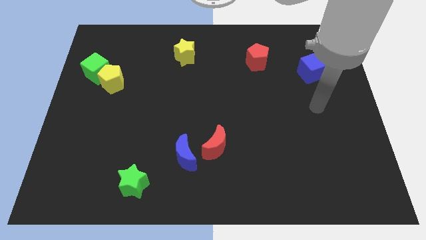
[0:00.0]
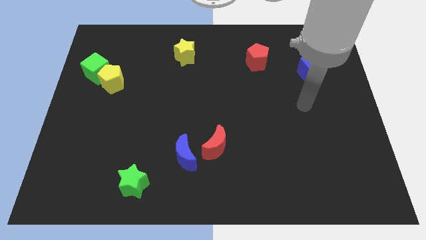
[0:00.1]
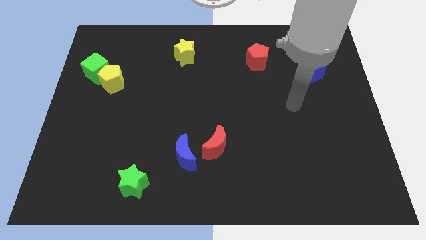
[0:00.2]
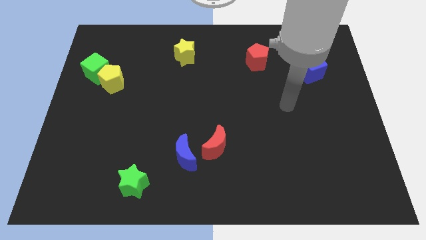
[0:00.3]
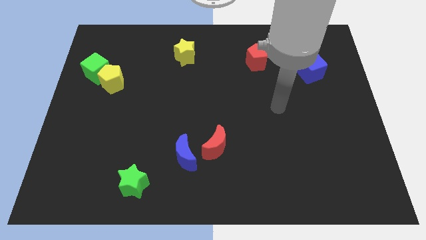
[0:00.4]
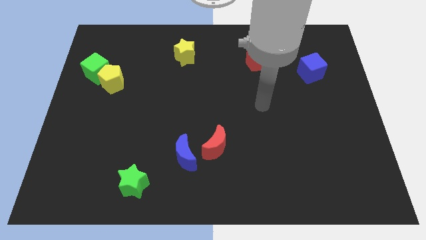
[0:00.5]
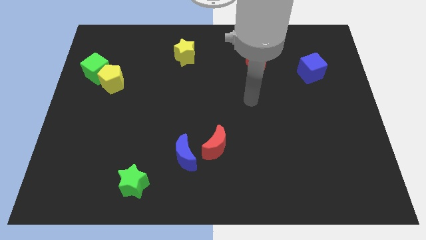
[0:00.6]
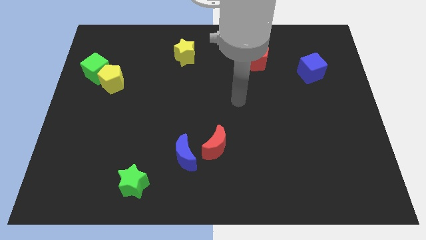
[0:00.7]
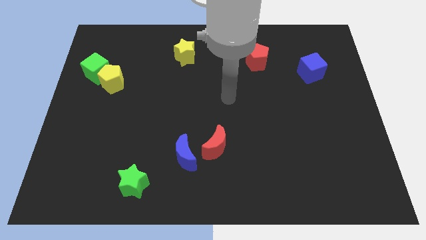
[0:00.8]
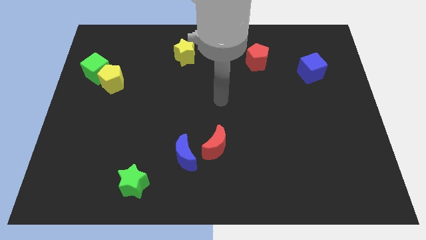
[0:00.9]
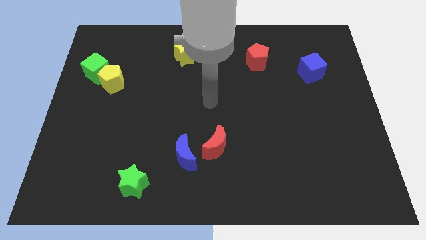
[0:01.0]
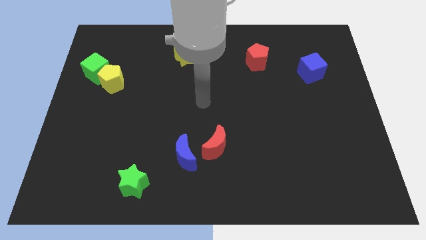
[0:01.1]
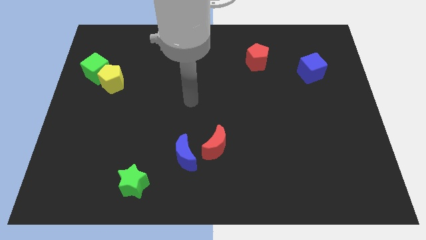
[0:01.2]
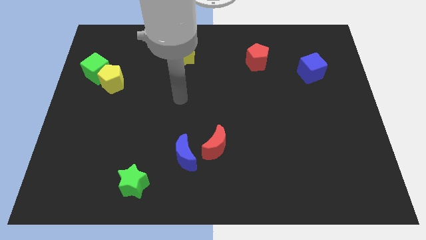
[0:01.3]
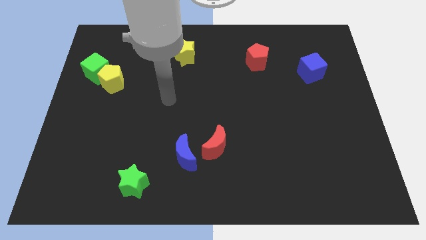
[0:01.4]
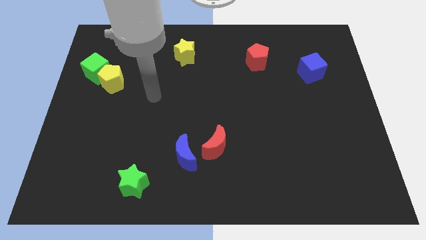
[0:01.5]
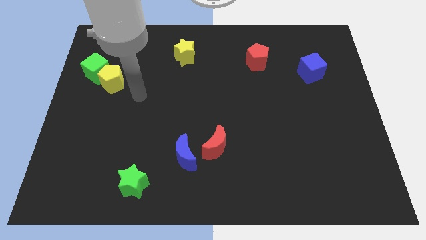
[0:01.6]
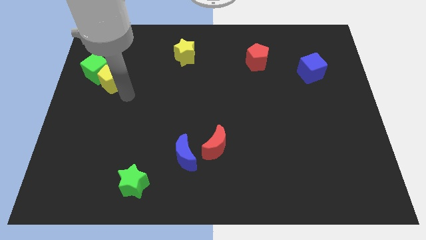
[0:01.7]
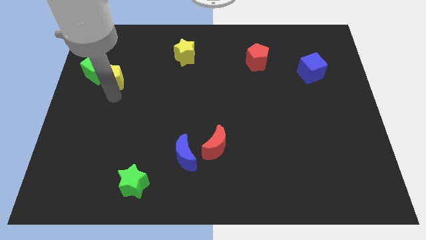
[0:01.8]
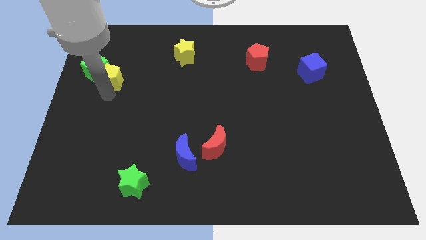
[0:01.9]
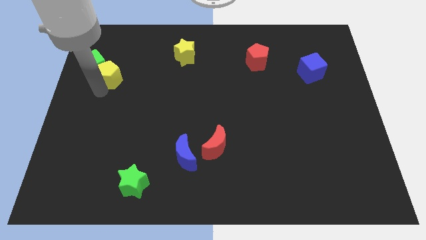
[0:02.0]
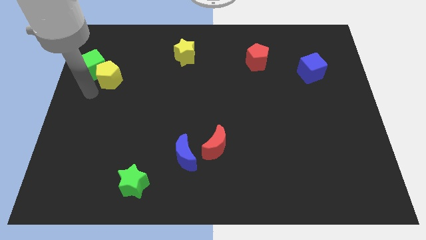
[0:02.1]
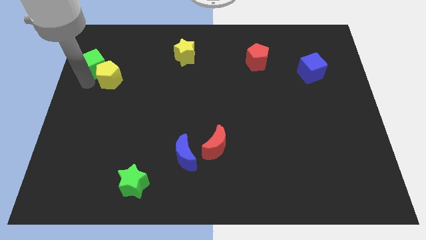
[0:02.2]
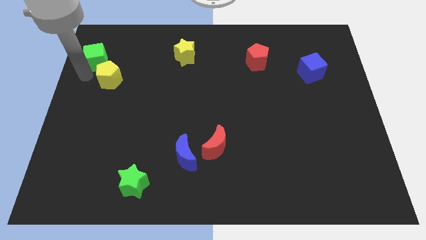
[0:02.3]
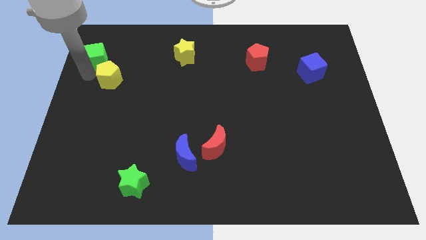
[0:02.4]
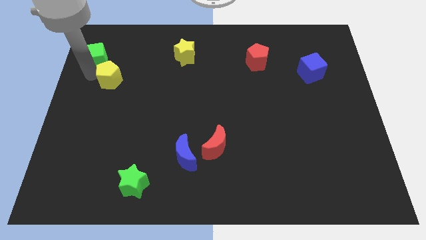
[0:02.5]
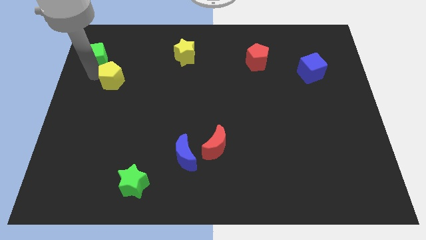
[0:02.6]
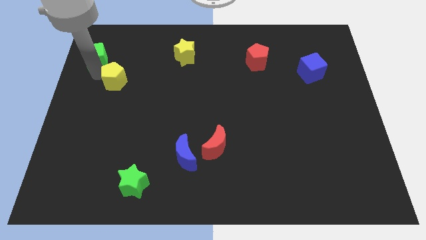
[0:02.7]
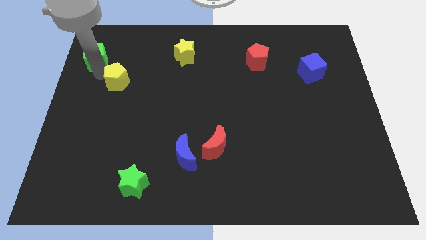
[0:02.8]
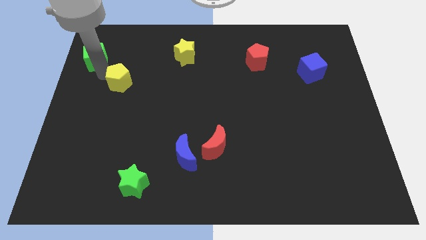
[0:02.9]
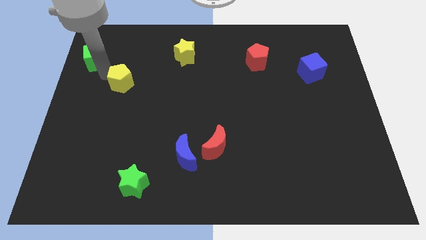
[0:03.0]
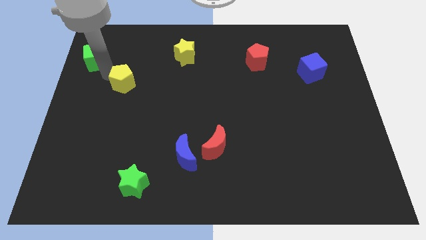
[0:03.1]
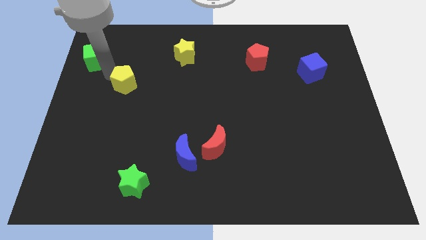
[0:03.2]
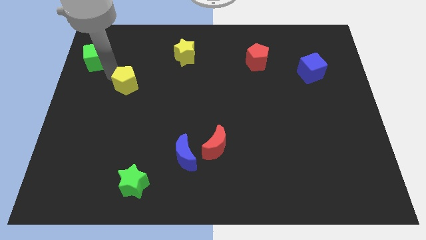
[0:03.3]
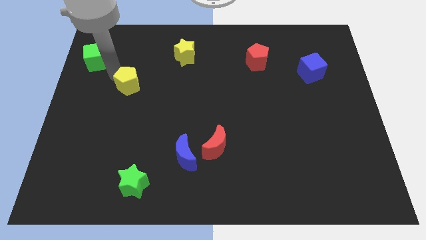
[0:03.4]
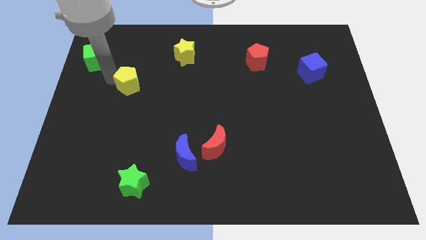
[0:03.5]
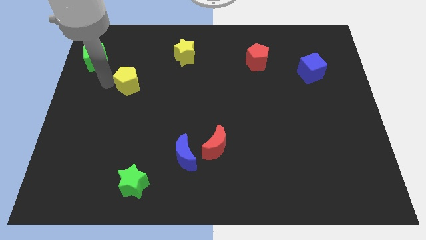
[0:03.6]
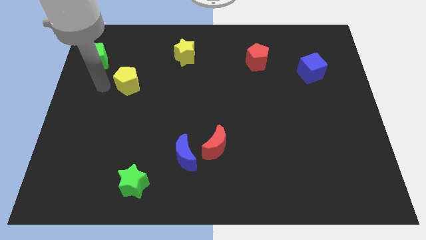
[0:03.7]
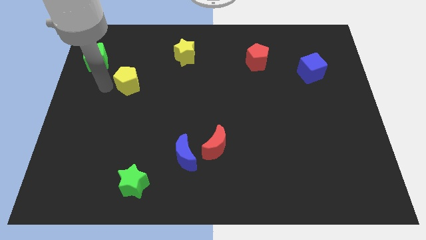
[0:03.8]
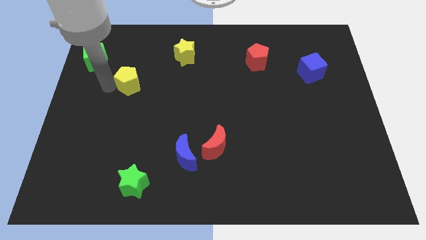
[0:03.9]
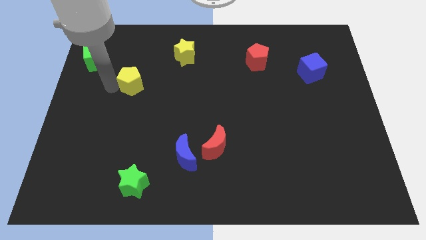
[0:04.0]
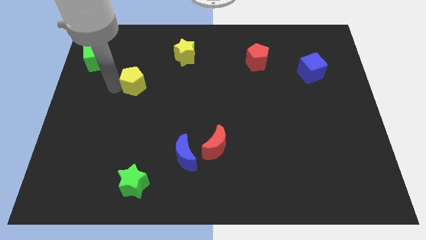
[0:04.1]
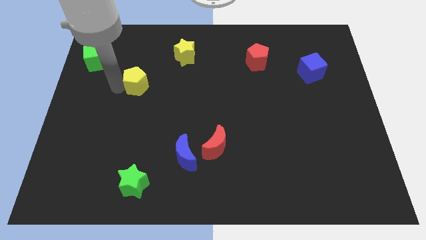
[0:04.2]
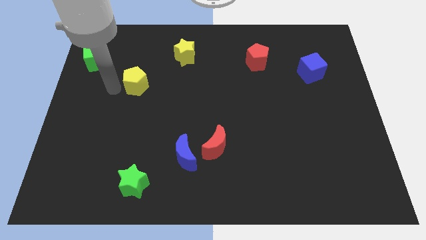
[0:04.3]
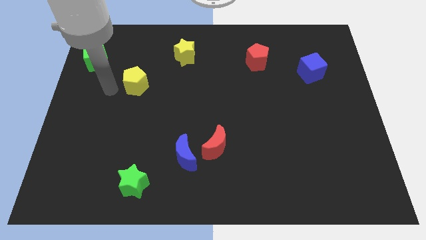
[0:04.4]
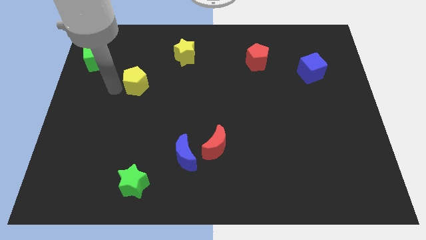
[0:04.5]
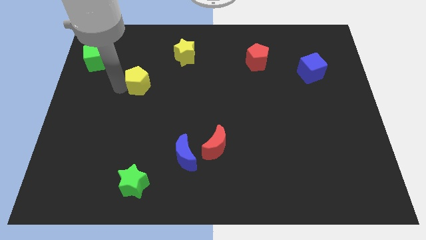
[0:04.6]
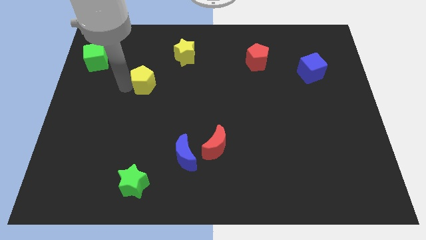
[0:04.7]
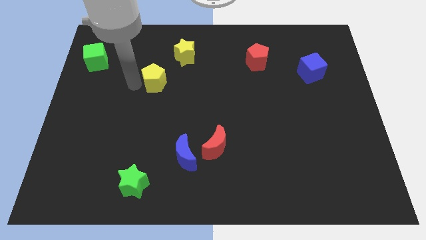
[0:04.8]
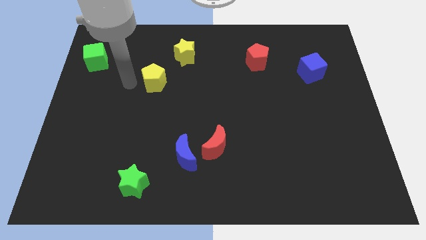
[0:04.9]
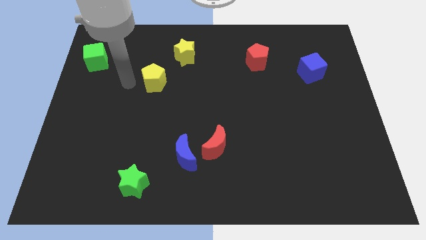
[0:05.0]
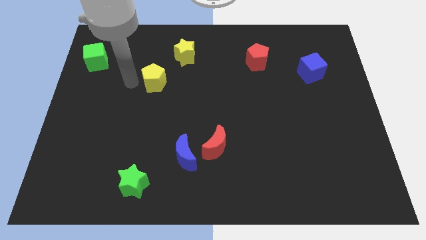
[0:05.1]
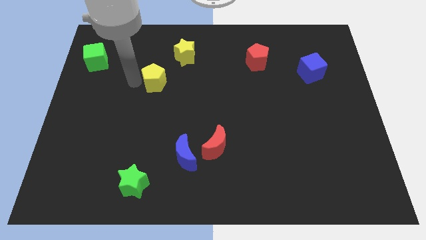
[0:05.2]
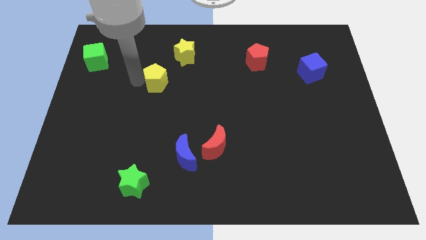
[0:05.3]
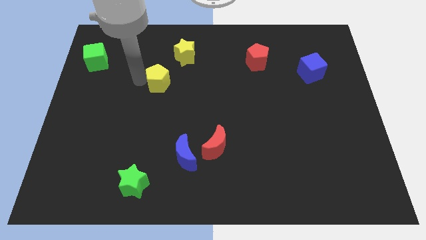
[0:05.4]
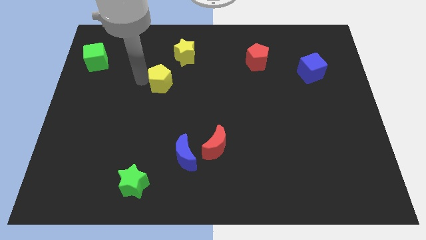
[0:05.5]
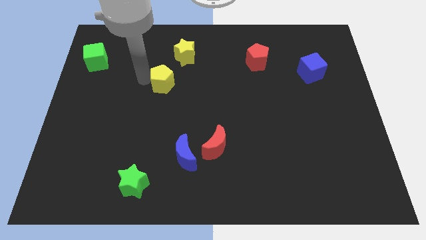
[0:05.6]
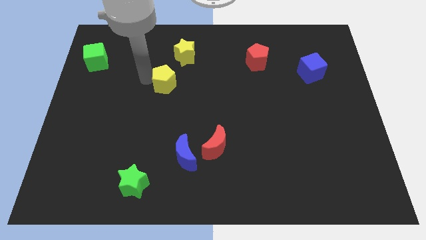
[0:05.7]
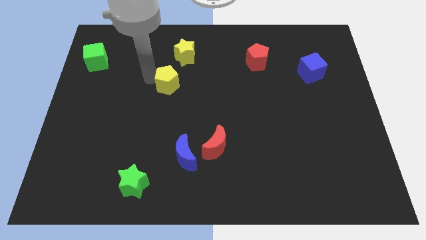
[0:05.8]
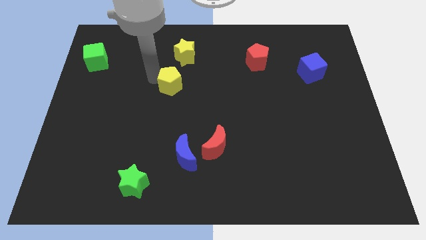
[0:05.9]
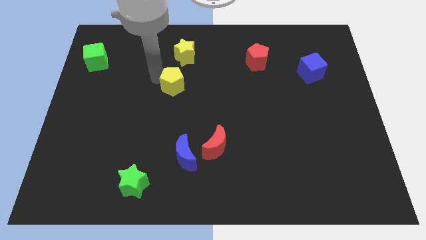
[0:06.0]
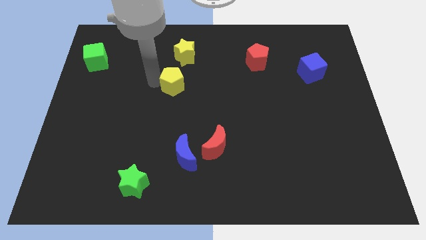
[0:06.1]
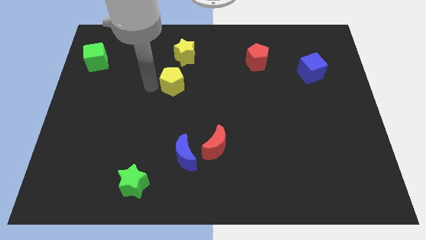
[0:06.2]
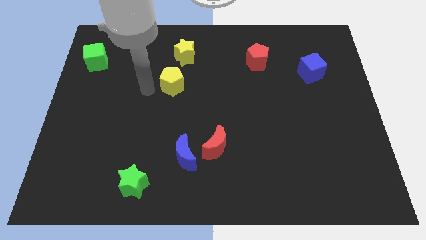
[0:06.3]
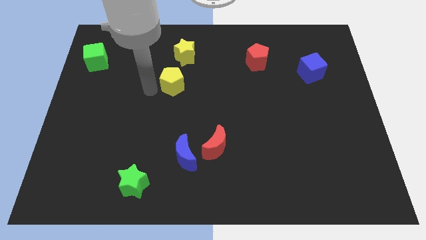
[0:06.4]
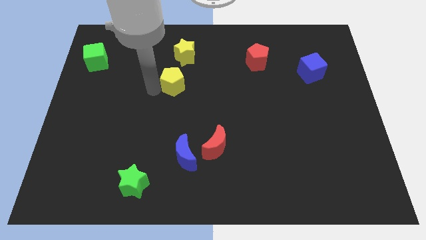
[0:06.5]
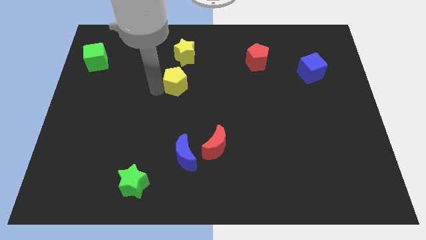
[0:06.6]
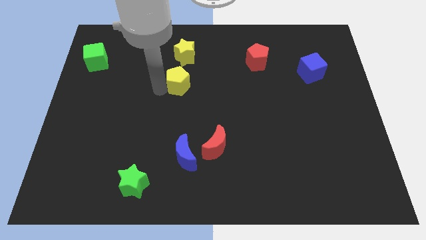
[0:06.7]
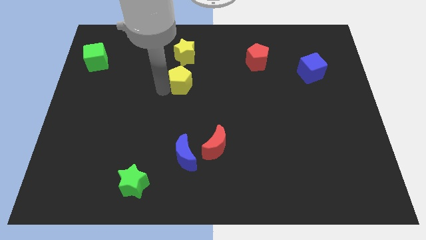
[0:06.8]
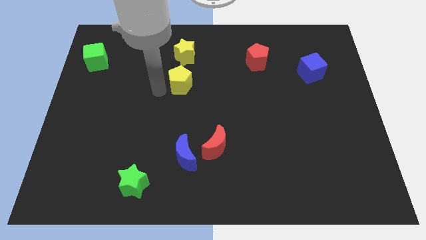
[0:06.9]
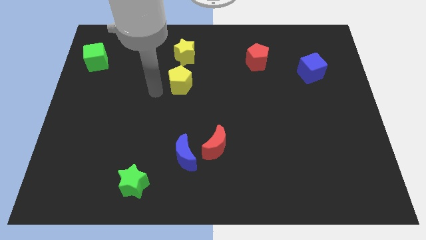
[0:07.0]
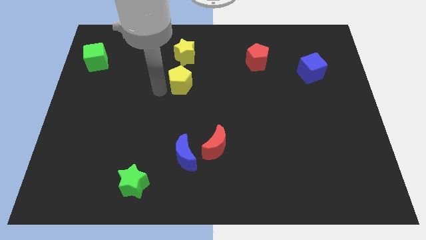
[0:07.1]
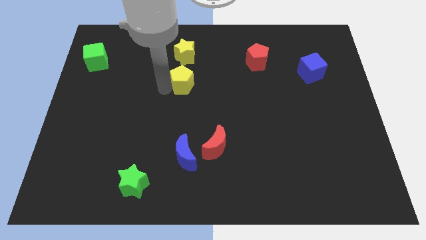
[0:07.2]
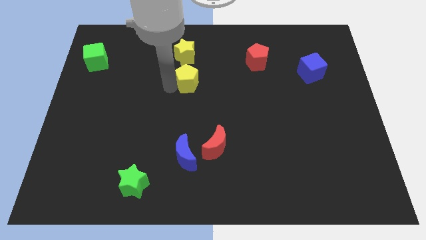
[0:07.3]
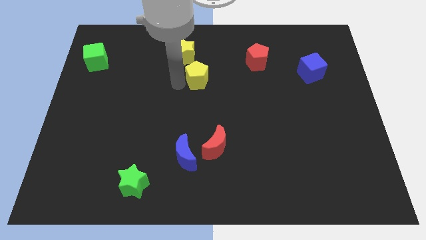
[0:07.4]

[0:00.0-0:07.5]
push the yellow pentagon right
